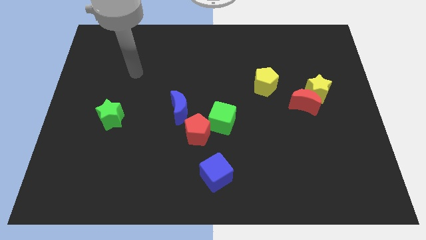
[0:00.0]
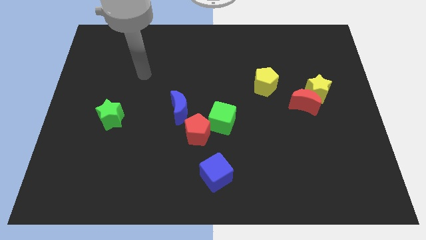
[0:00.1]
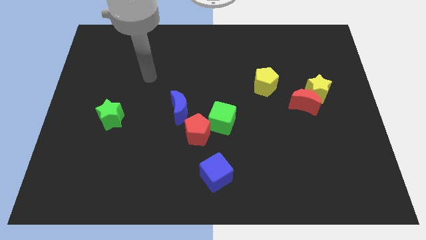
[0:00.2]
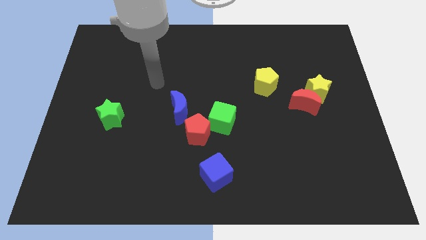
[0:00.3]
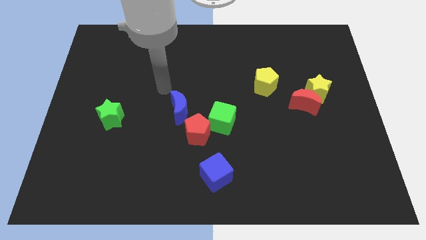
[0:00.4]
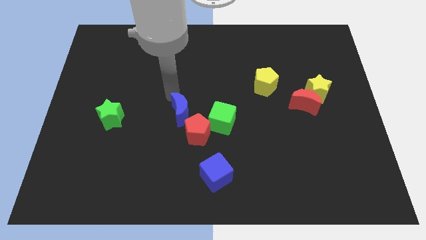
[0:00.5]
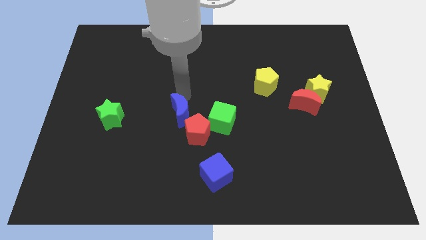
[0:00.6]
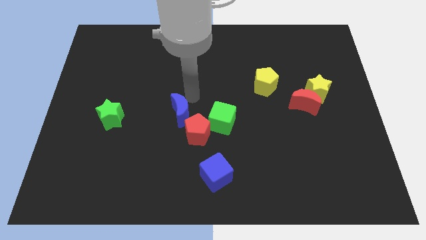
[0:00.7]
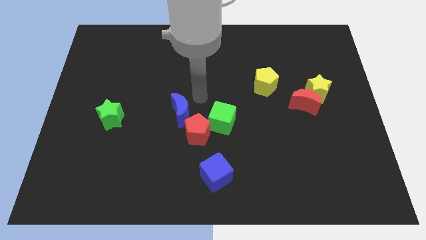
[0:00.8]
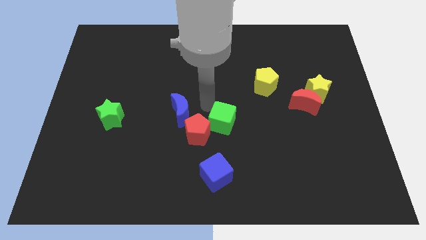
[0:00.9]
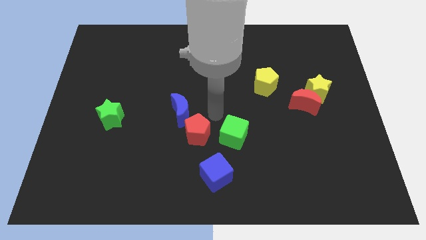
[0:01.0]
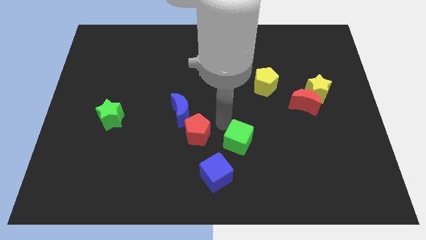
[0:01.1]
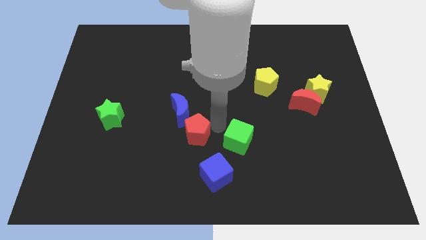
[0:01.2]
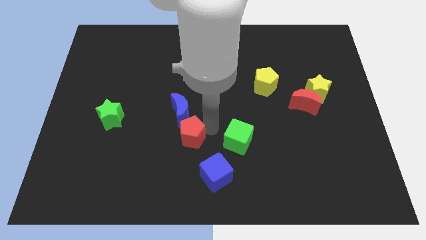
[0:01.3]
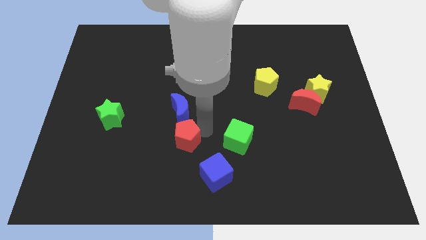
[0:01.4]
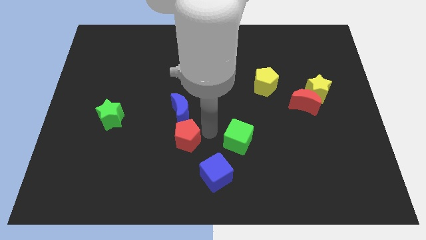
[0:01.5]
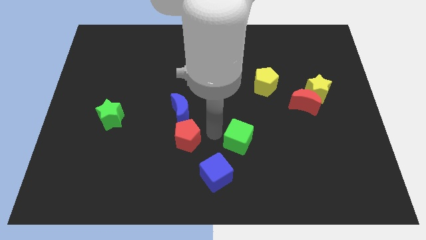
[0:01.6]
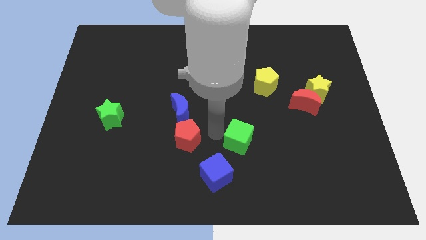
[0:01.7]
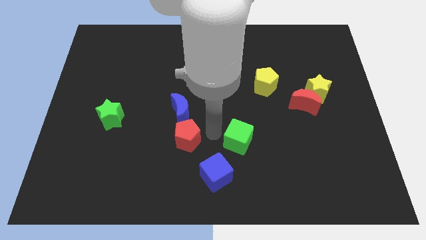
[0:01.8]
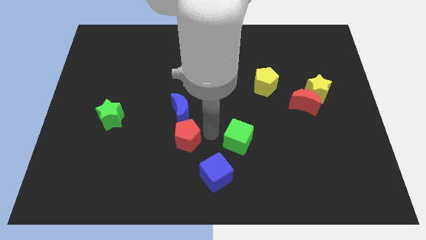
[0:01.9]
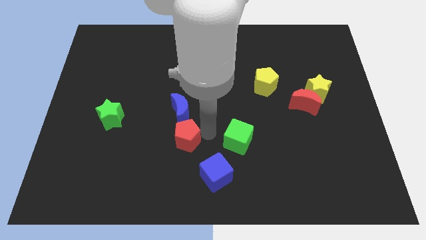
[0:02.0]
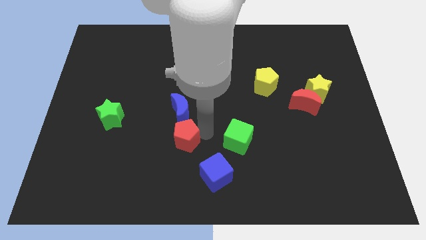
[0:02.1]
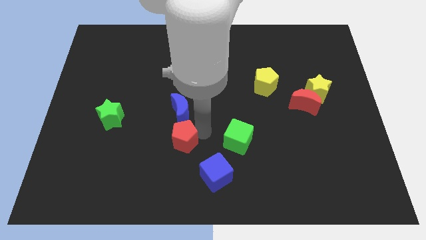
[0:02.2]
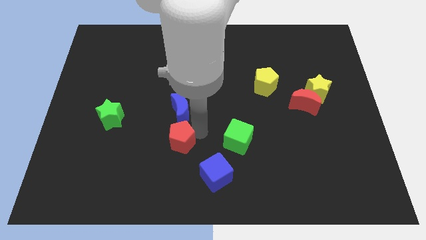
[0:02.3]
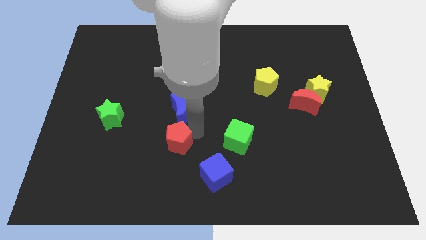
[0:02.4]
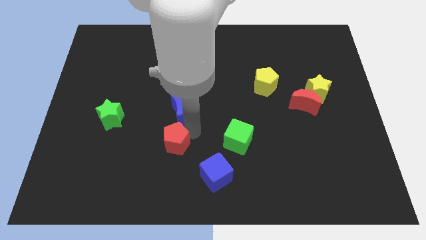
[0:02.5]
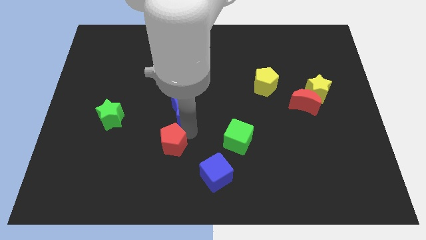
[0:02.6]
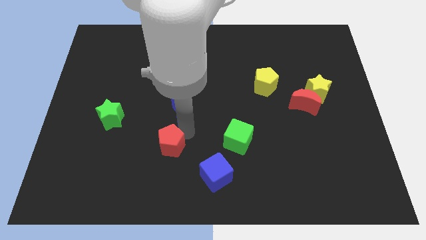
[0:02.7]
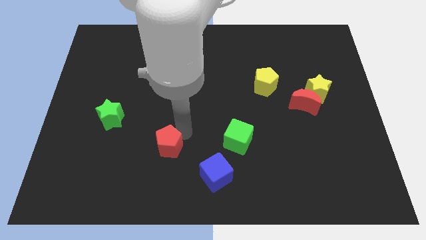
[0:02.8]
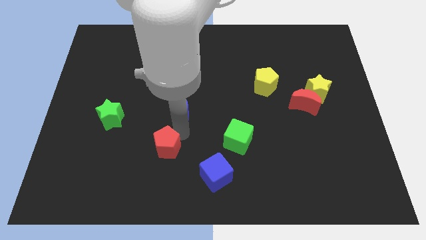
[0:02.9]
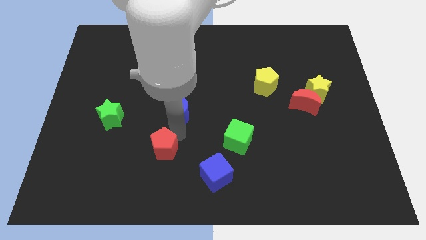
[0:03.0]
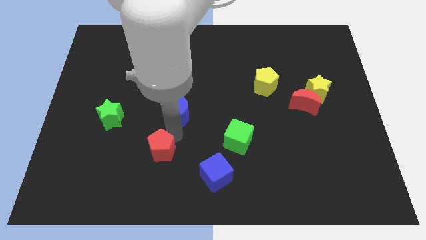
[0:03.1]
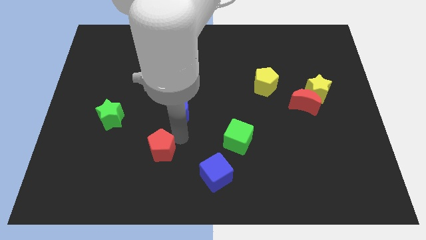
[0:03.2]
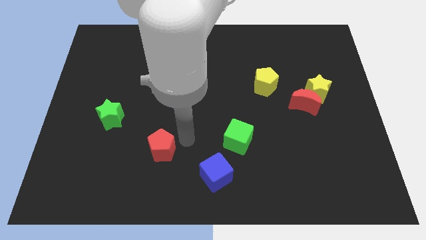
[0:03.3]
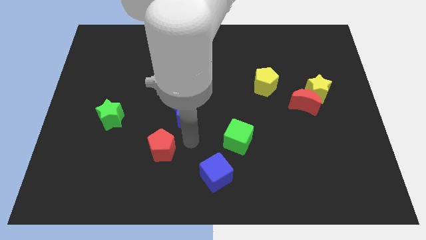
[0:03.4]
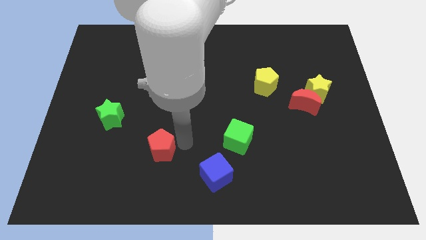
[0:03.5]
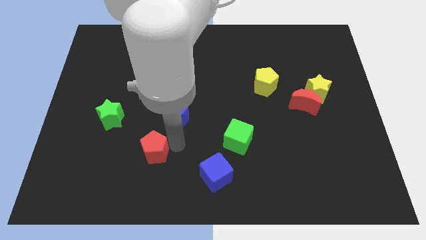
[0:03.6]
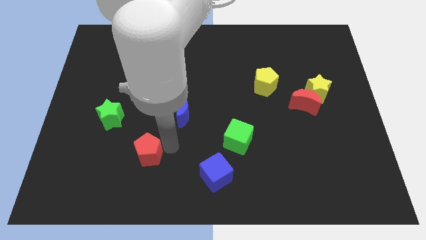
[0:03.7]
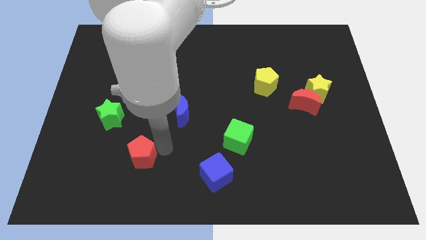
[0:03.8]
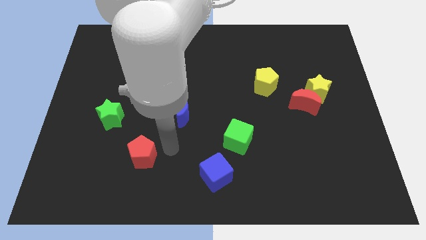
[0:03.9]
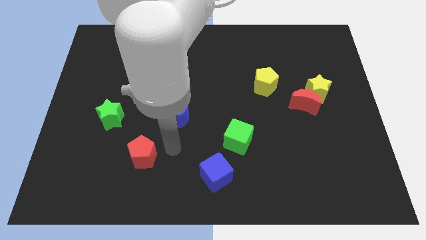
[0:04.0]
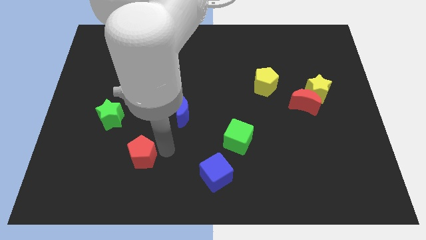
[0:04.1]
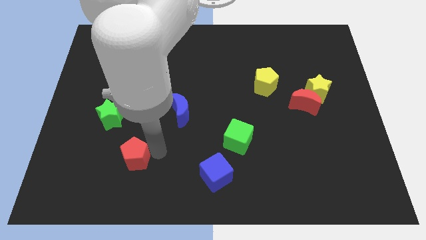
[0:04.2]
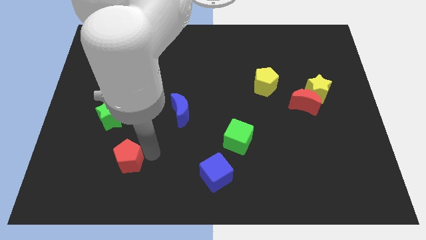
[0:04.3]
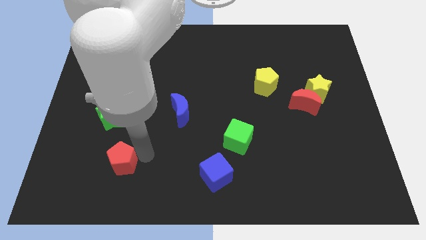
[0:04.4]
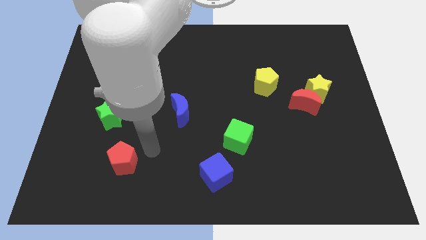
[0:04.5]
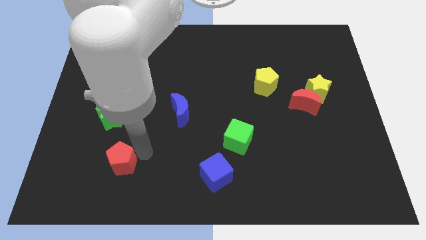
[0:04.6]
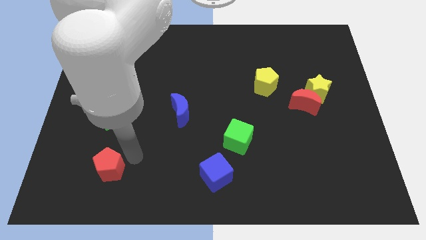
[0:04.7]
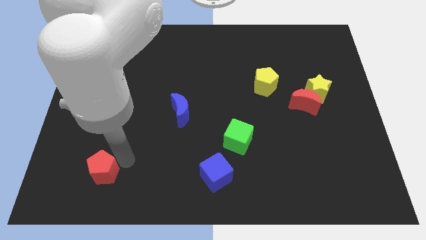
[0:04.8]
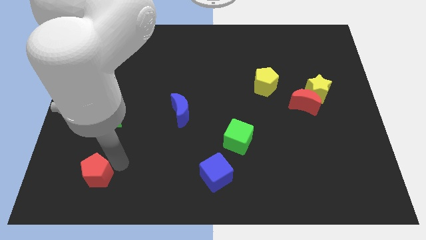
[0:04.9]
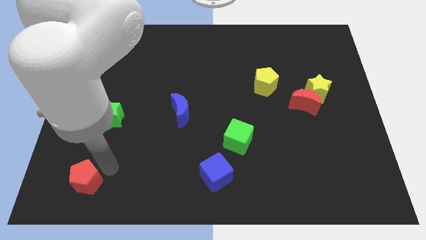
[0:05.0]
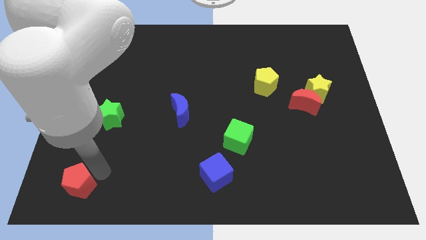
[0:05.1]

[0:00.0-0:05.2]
push the red pentagon to the bottom left corner

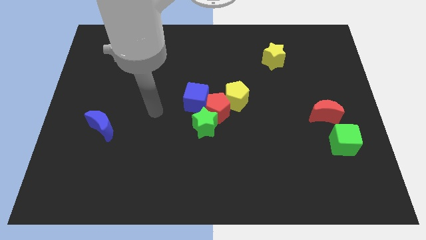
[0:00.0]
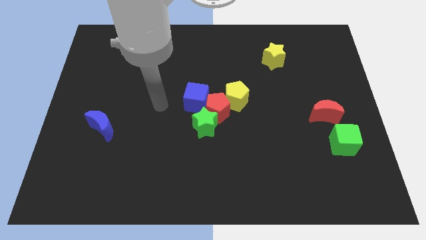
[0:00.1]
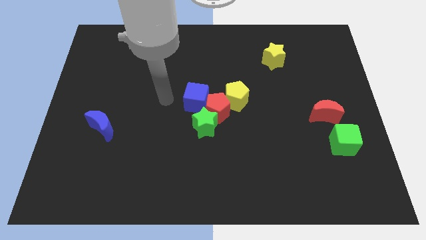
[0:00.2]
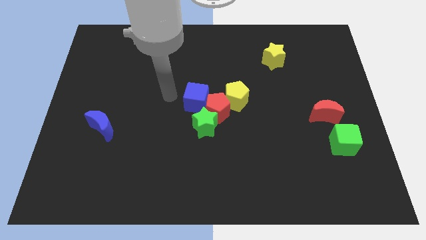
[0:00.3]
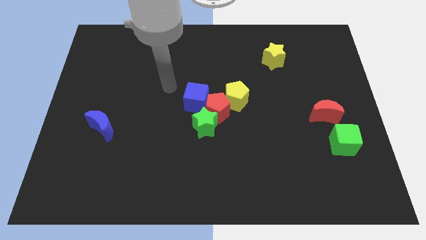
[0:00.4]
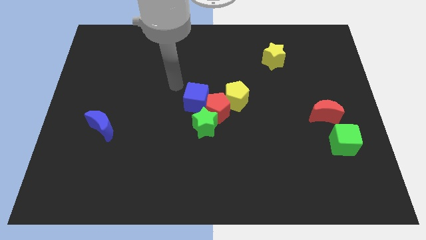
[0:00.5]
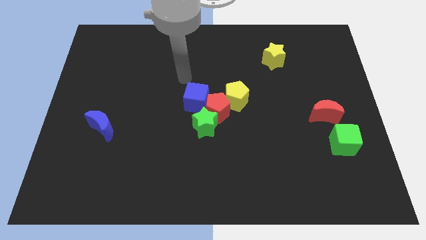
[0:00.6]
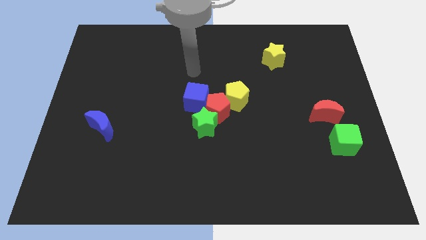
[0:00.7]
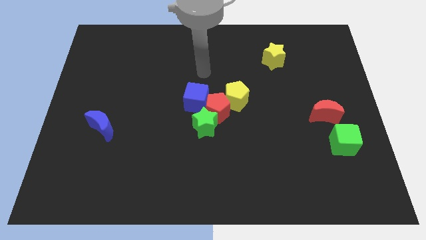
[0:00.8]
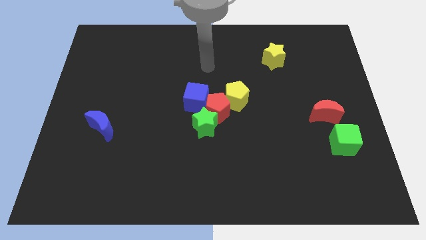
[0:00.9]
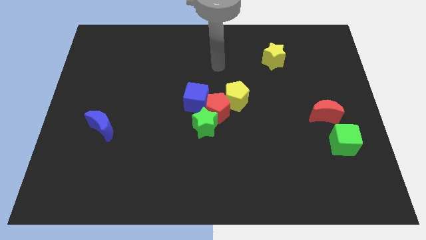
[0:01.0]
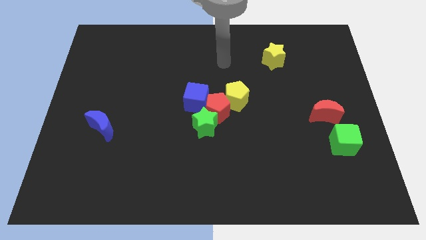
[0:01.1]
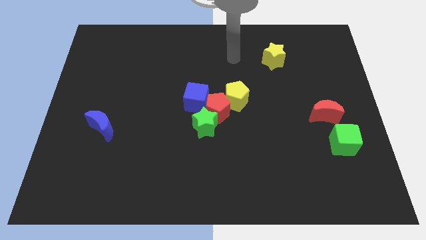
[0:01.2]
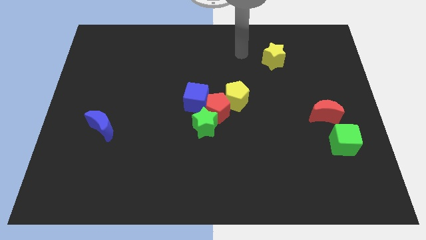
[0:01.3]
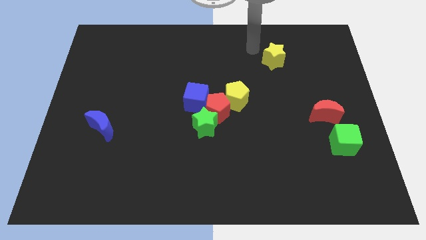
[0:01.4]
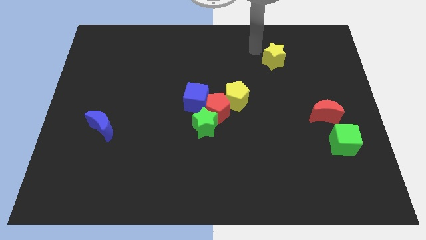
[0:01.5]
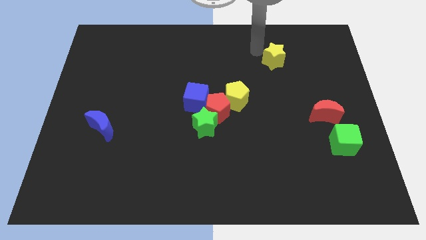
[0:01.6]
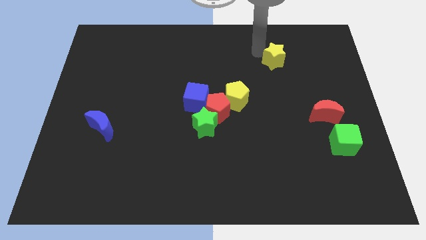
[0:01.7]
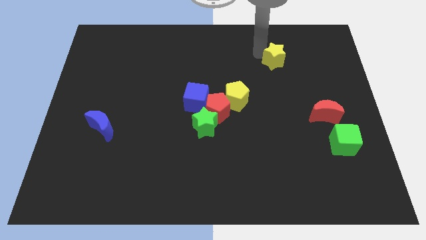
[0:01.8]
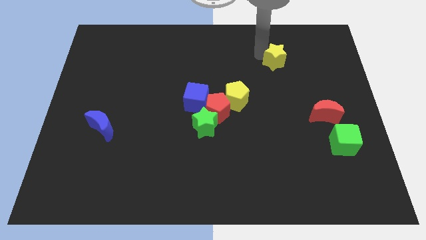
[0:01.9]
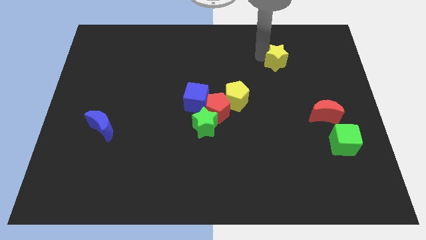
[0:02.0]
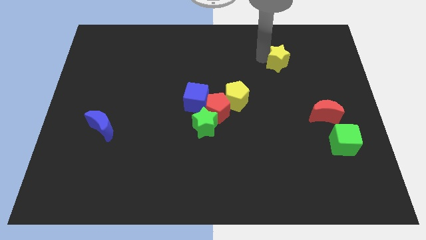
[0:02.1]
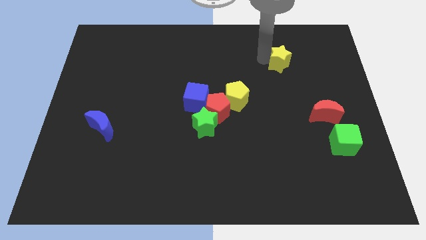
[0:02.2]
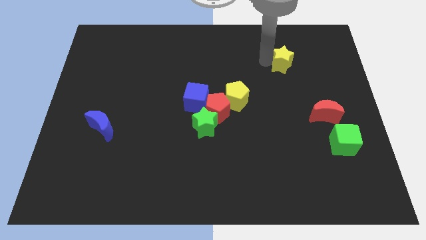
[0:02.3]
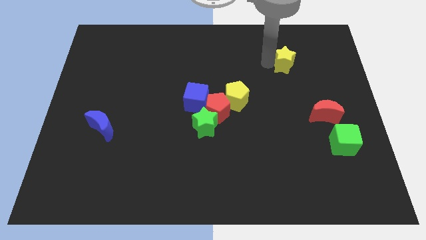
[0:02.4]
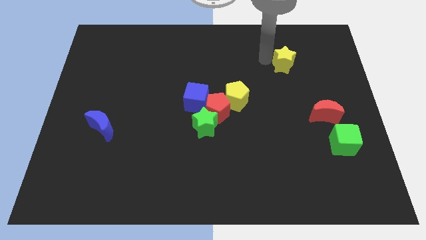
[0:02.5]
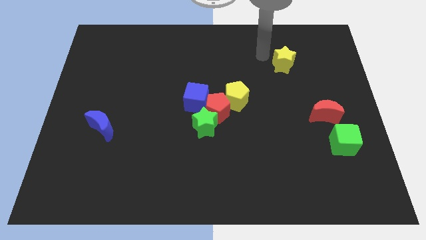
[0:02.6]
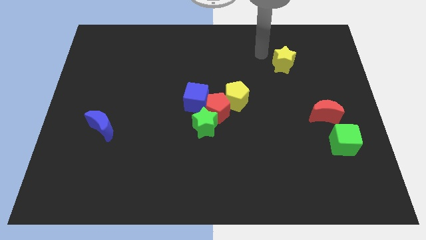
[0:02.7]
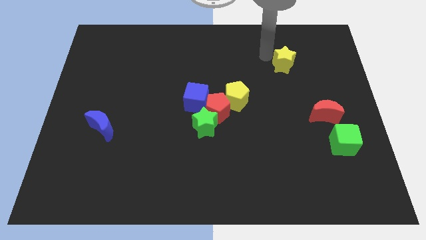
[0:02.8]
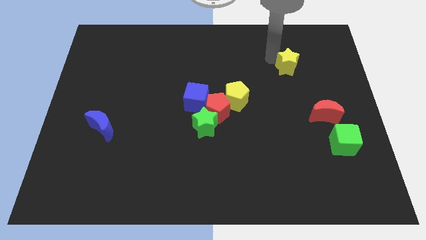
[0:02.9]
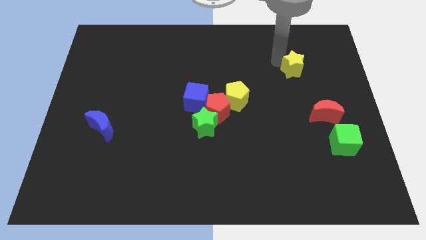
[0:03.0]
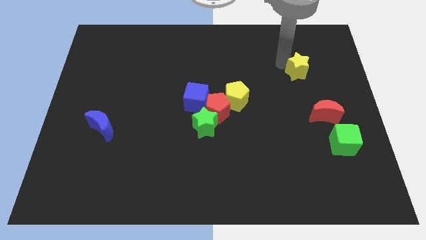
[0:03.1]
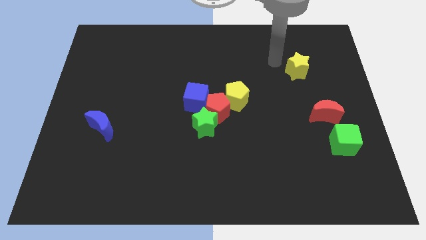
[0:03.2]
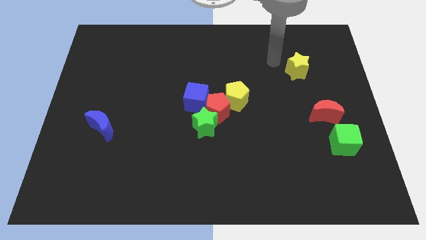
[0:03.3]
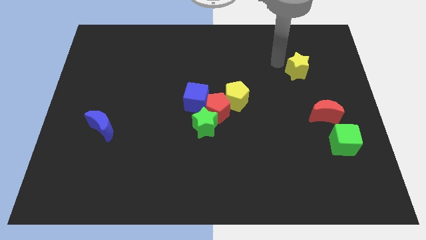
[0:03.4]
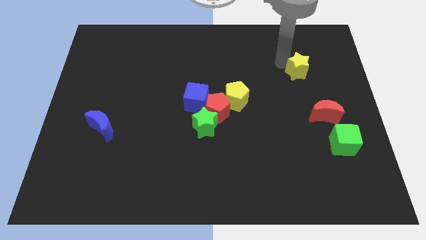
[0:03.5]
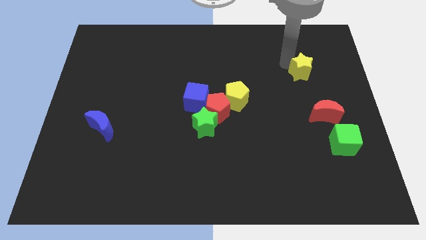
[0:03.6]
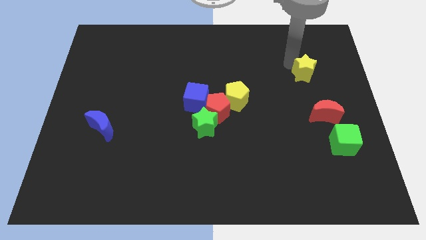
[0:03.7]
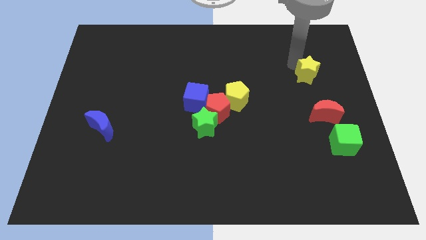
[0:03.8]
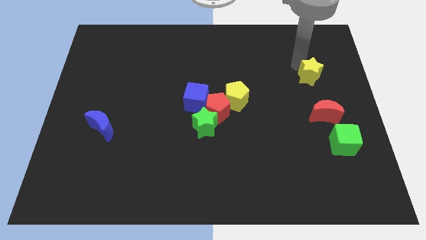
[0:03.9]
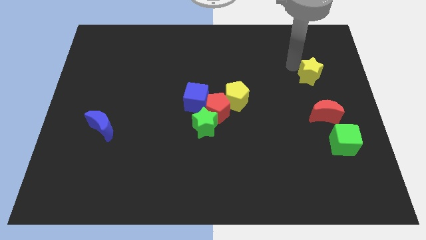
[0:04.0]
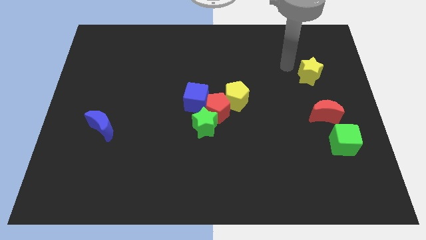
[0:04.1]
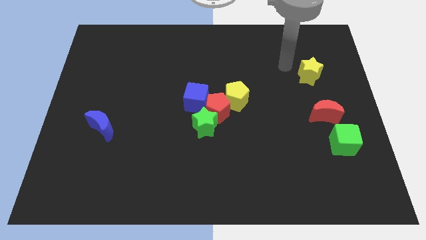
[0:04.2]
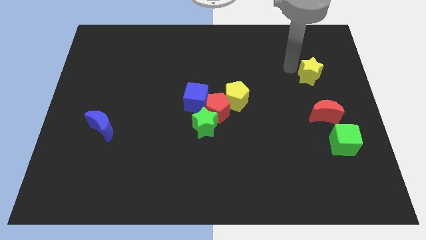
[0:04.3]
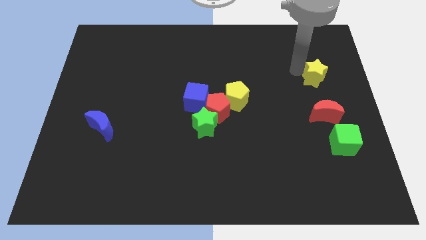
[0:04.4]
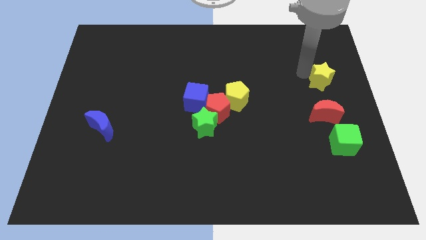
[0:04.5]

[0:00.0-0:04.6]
slide the yellow star to the right side
